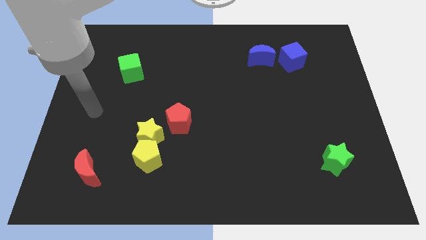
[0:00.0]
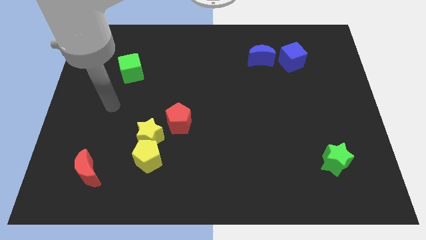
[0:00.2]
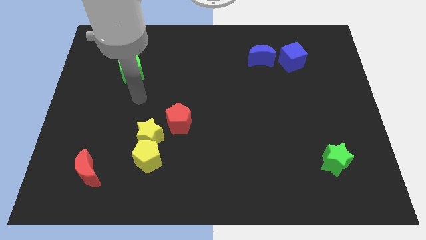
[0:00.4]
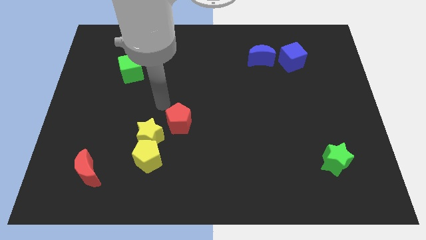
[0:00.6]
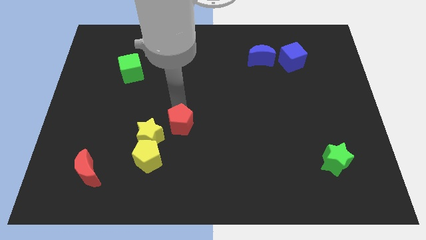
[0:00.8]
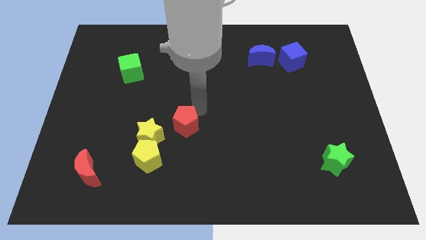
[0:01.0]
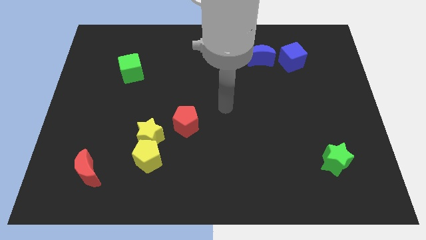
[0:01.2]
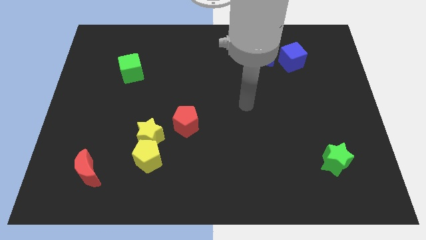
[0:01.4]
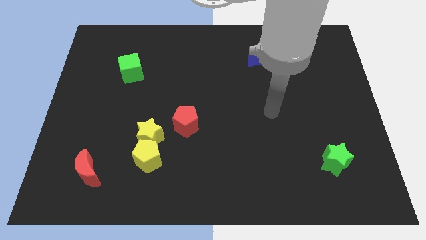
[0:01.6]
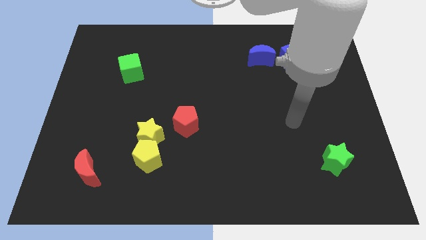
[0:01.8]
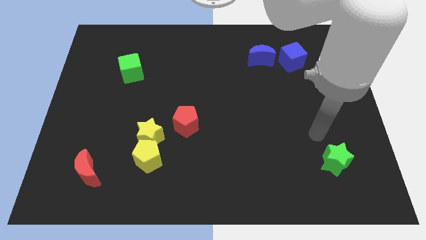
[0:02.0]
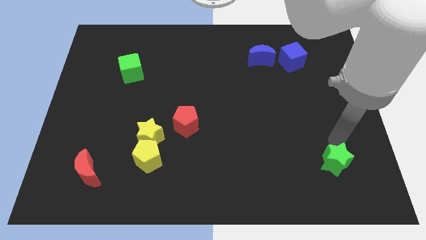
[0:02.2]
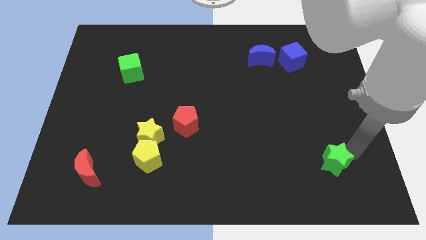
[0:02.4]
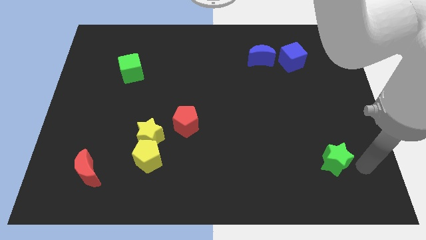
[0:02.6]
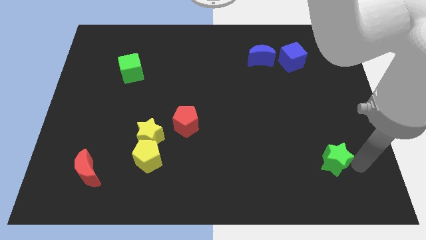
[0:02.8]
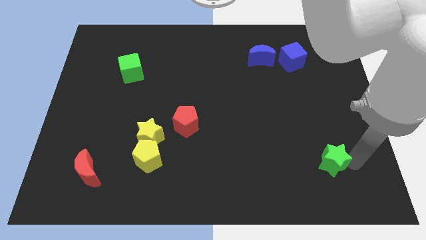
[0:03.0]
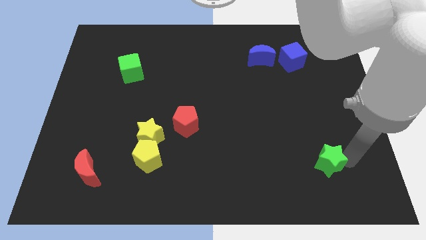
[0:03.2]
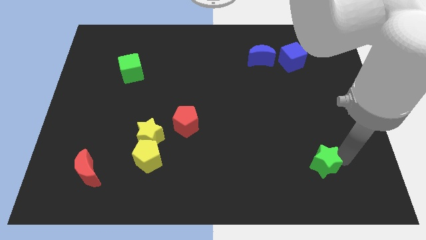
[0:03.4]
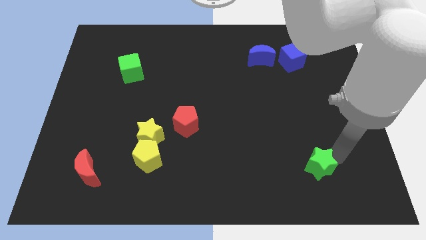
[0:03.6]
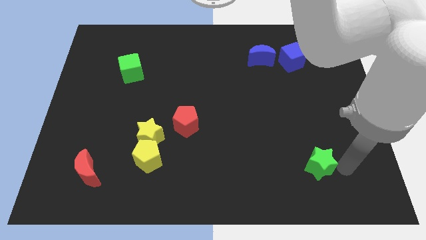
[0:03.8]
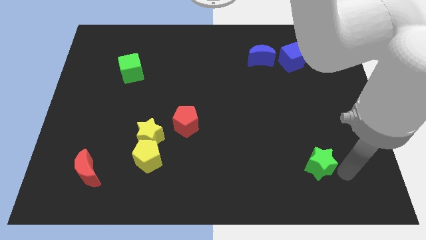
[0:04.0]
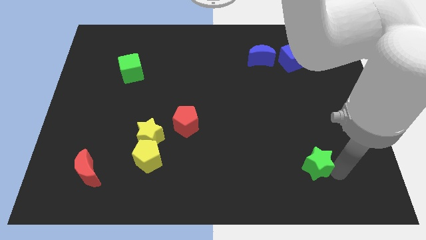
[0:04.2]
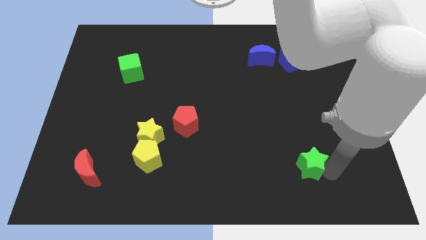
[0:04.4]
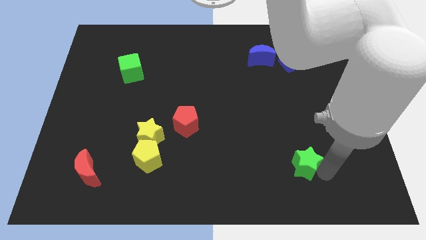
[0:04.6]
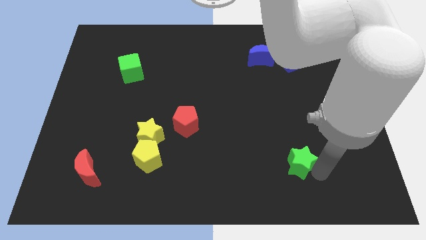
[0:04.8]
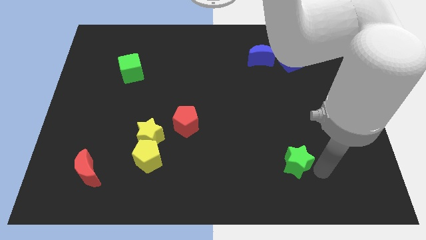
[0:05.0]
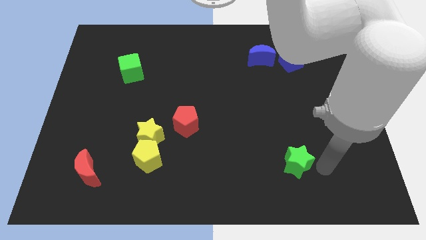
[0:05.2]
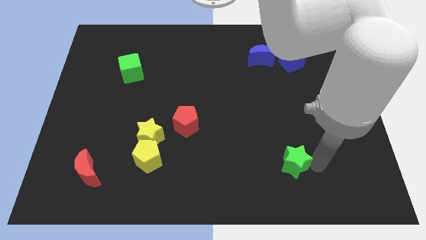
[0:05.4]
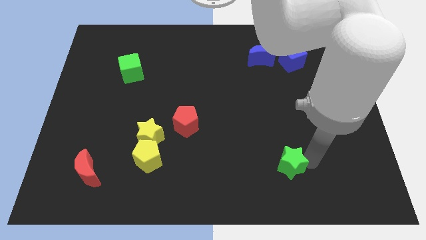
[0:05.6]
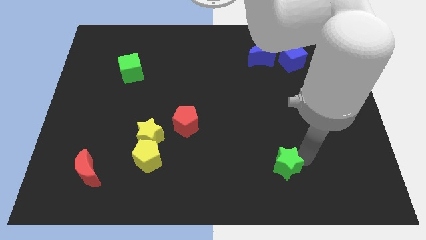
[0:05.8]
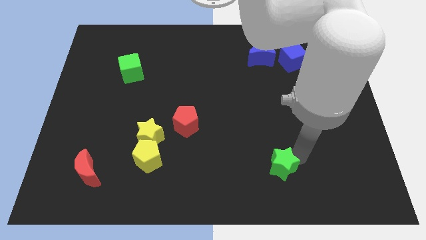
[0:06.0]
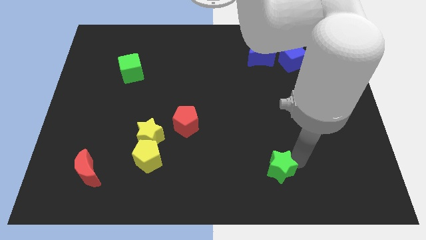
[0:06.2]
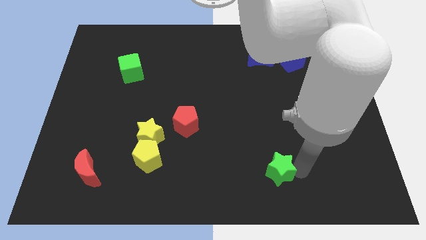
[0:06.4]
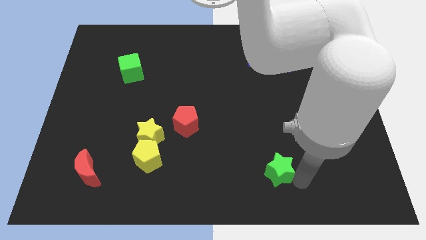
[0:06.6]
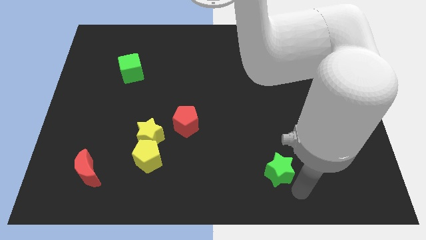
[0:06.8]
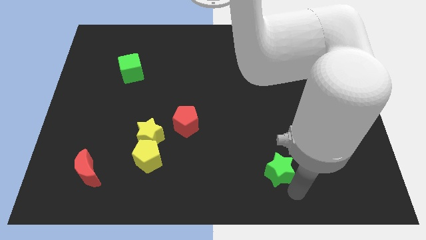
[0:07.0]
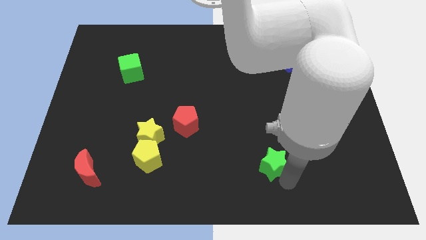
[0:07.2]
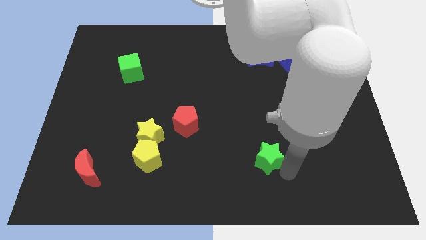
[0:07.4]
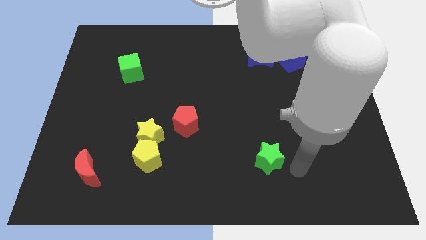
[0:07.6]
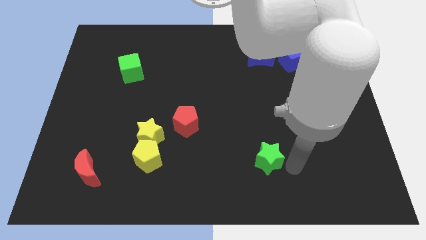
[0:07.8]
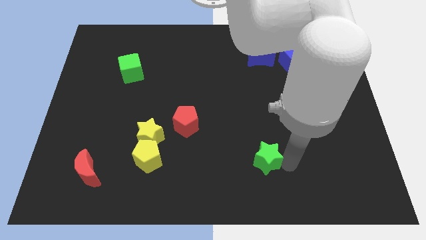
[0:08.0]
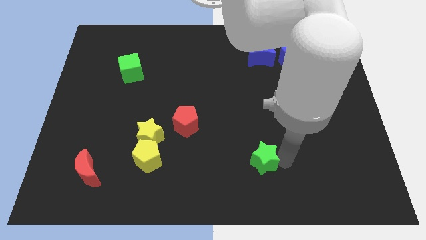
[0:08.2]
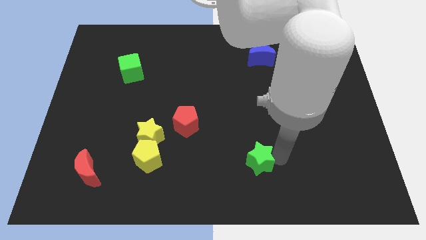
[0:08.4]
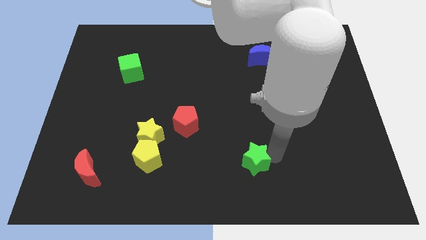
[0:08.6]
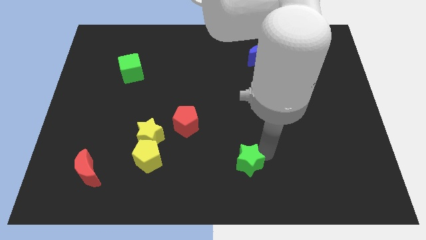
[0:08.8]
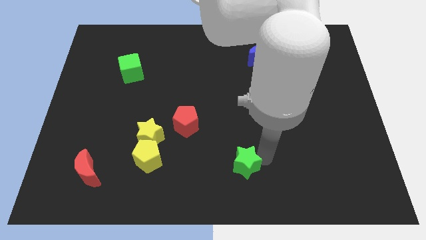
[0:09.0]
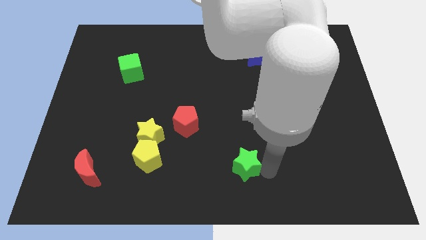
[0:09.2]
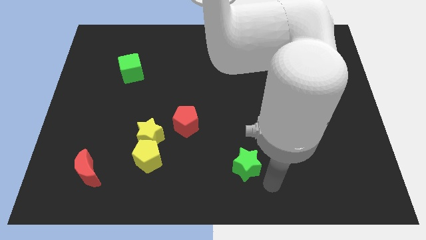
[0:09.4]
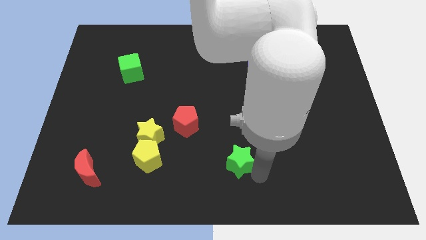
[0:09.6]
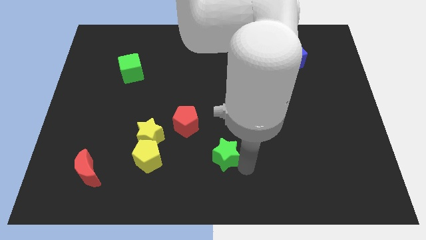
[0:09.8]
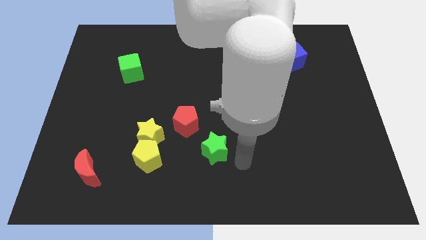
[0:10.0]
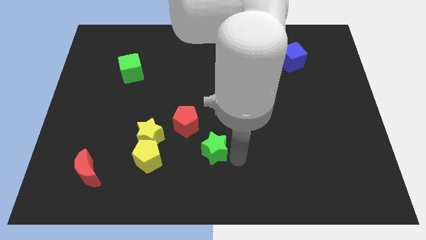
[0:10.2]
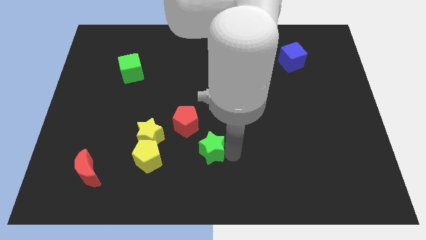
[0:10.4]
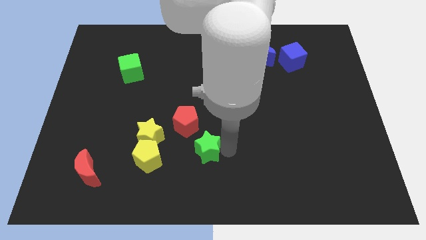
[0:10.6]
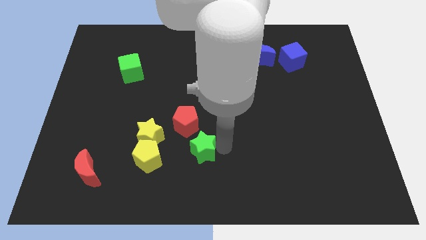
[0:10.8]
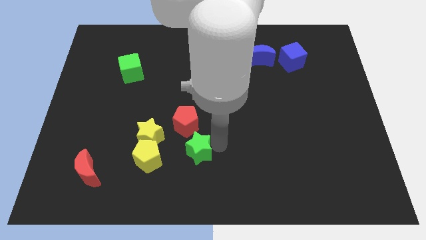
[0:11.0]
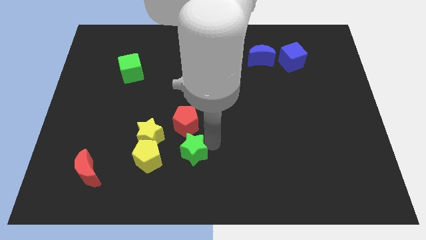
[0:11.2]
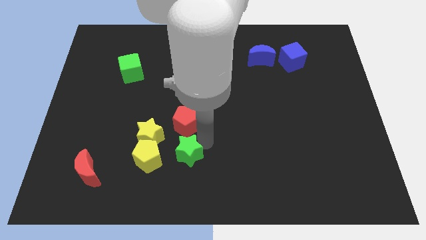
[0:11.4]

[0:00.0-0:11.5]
put the green star to the top right of the yellow pentagon
